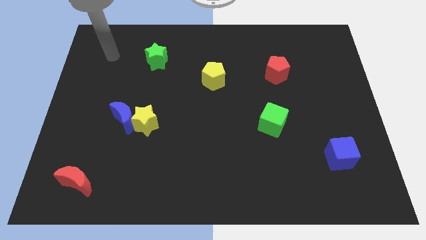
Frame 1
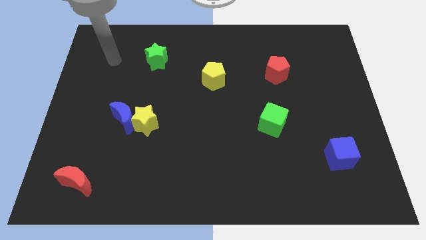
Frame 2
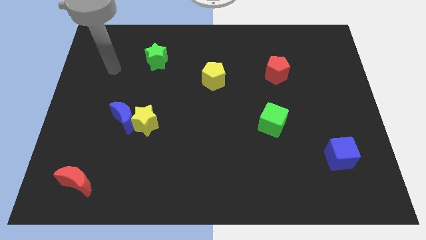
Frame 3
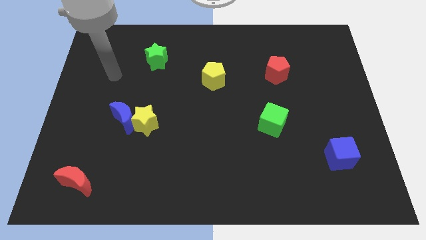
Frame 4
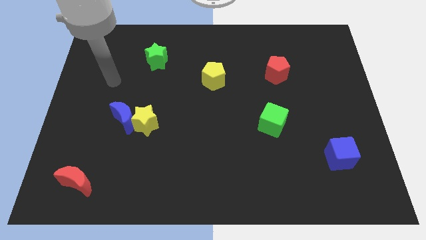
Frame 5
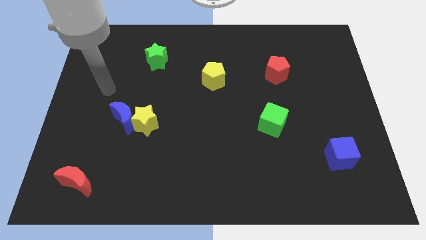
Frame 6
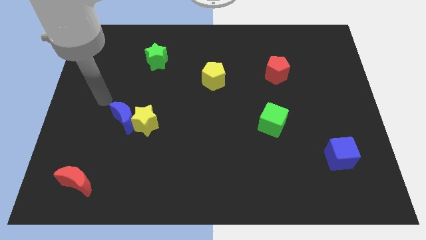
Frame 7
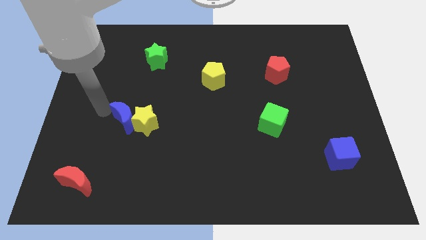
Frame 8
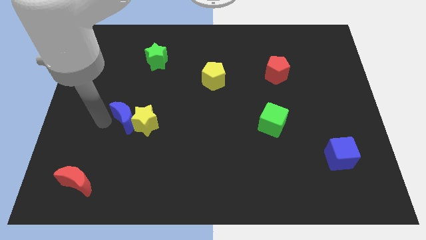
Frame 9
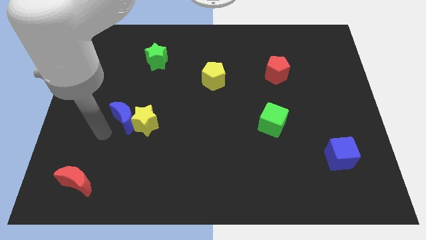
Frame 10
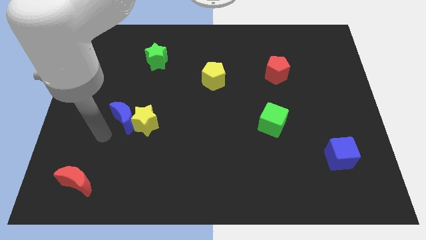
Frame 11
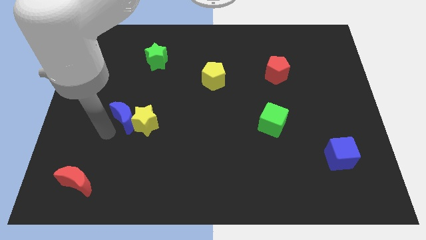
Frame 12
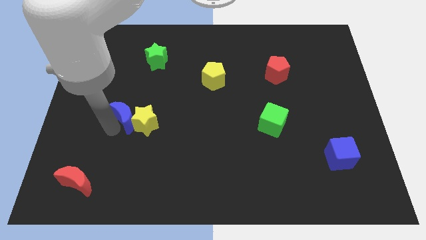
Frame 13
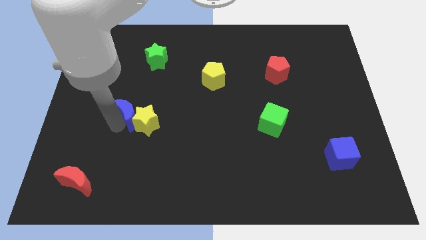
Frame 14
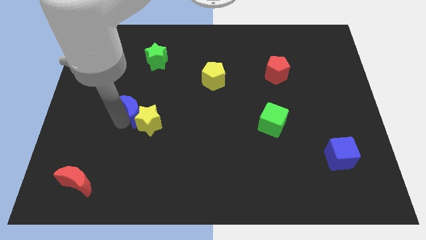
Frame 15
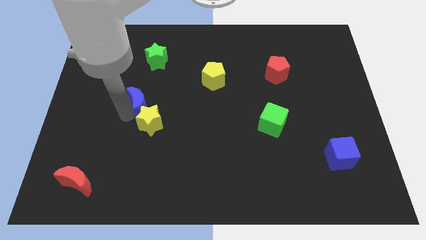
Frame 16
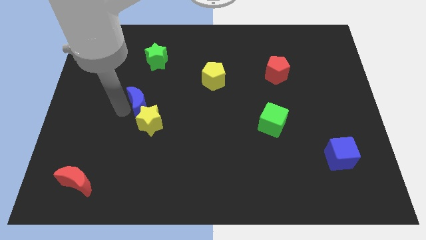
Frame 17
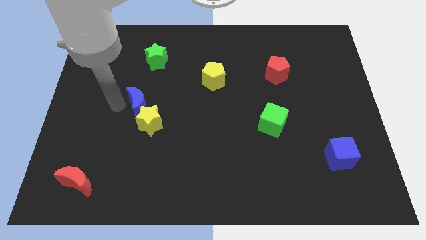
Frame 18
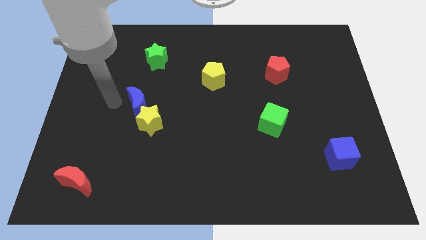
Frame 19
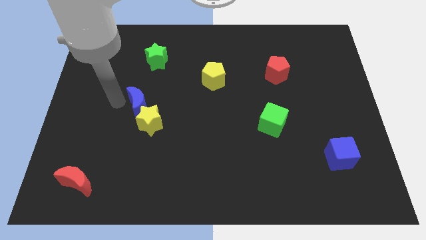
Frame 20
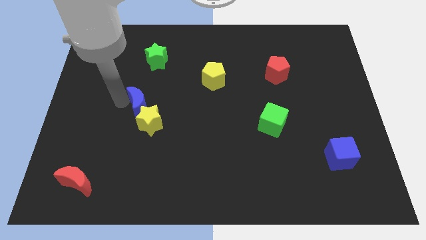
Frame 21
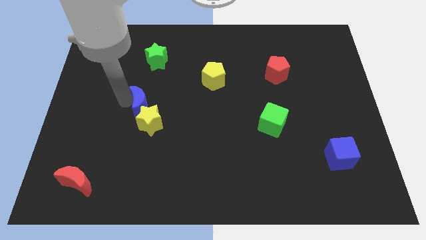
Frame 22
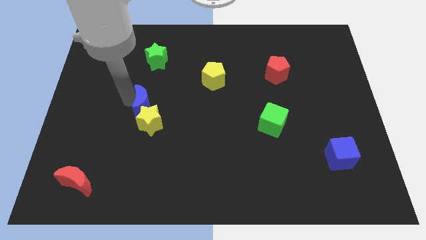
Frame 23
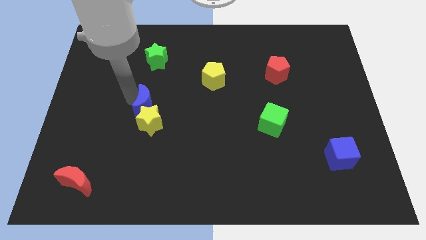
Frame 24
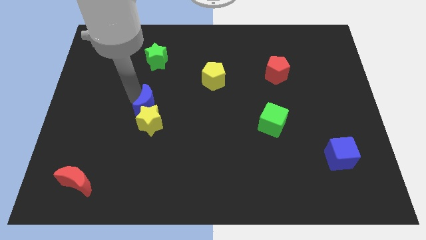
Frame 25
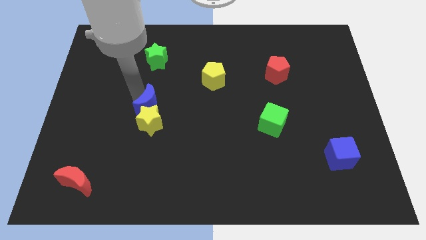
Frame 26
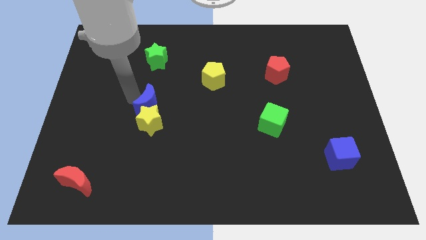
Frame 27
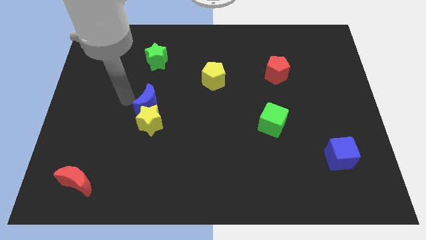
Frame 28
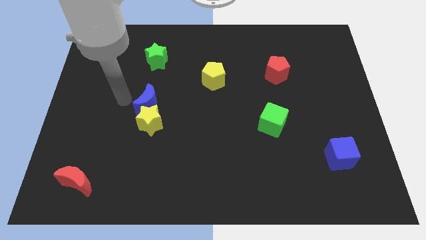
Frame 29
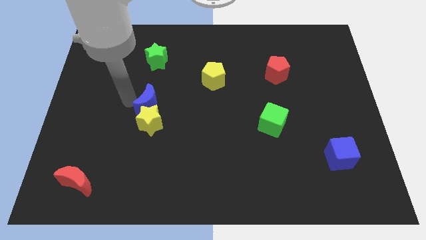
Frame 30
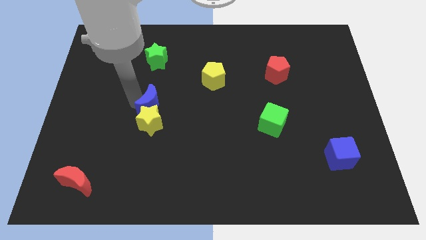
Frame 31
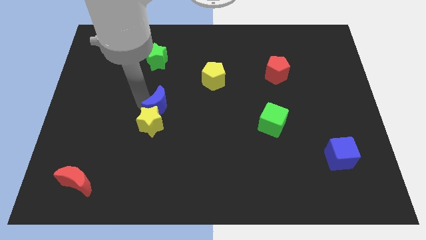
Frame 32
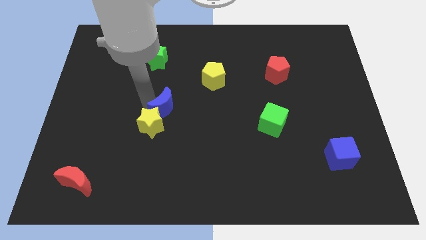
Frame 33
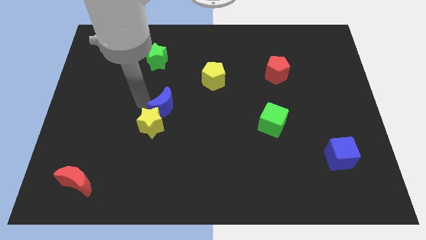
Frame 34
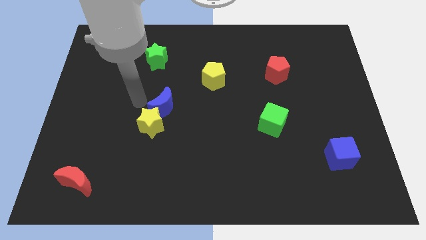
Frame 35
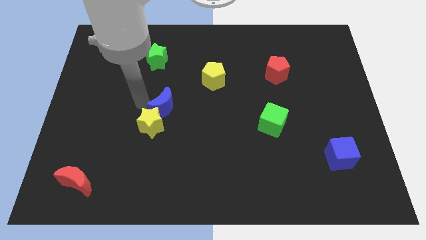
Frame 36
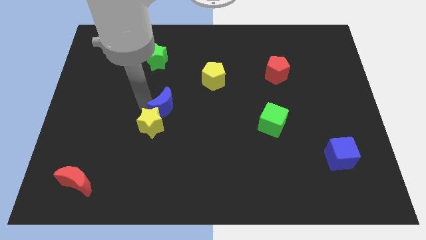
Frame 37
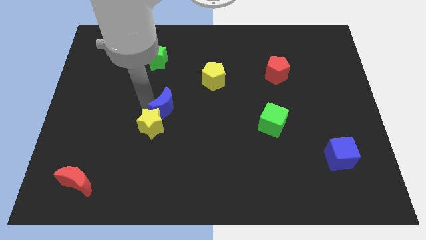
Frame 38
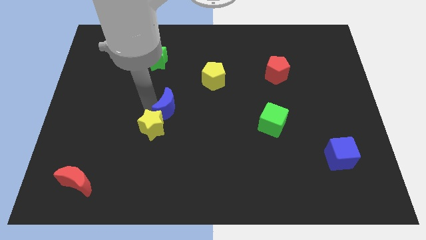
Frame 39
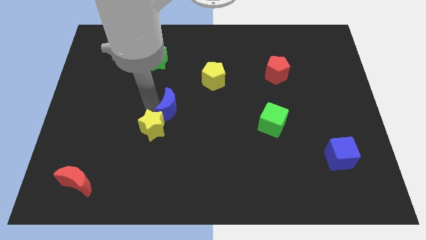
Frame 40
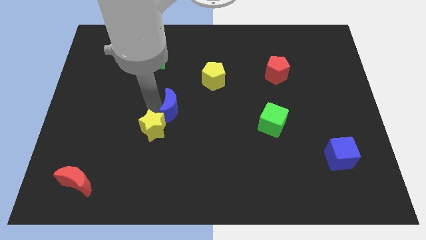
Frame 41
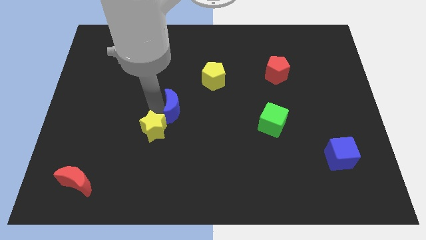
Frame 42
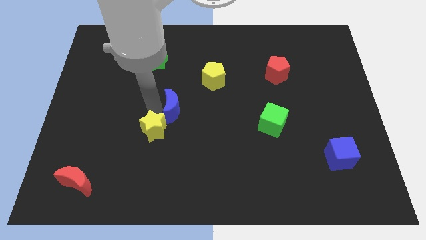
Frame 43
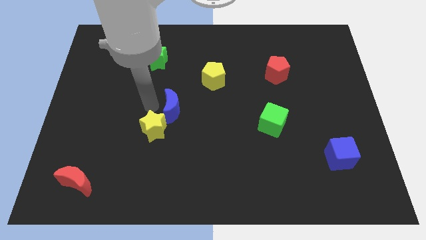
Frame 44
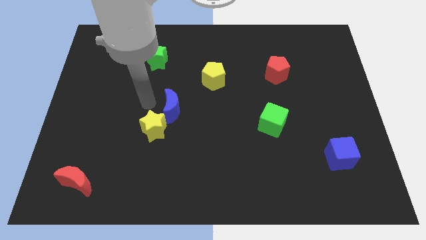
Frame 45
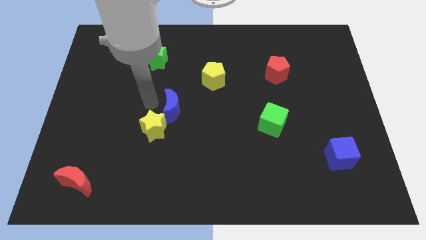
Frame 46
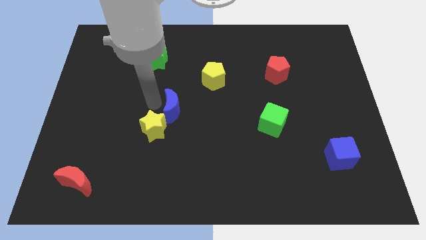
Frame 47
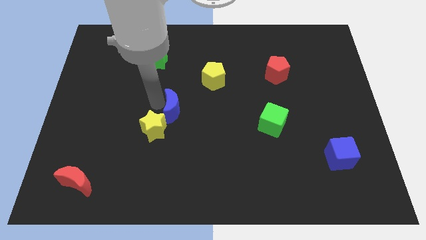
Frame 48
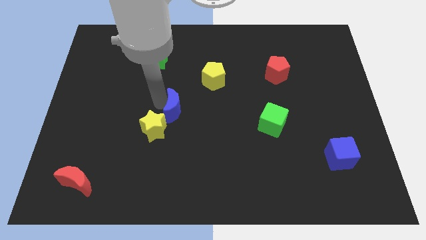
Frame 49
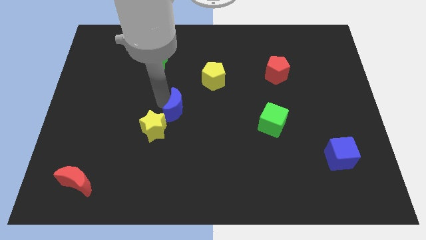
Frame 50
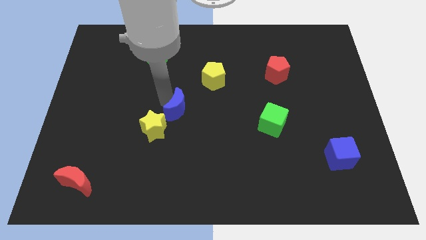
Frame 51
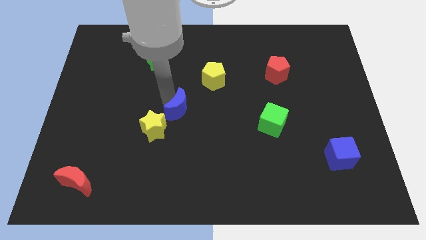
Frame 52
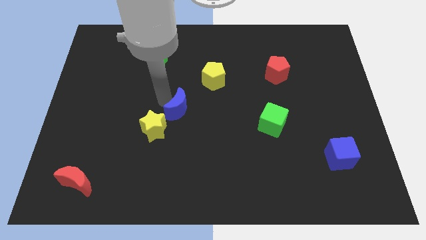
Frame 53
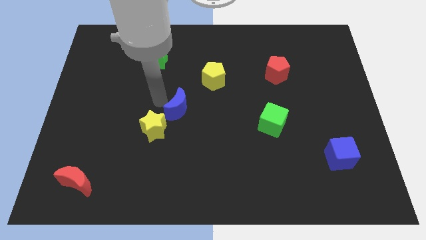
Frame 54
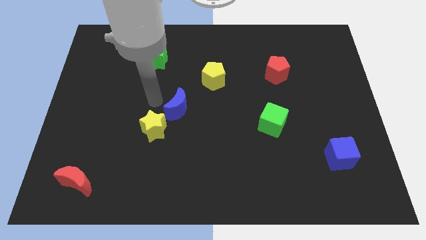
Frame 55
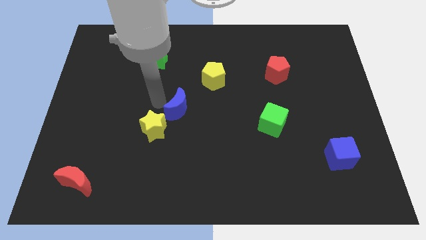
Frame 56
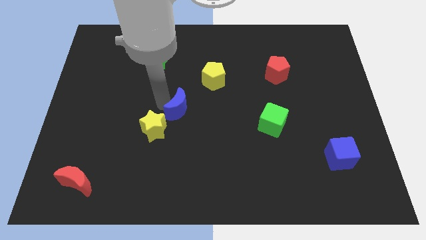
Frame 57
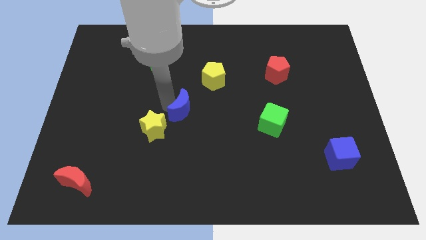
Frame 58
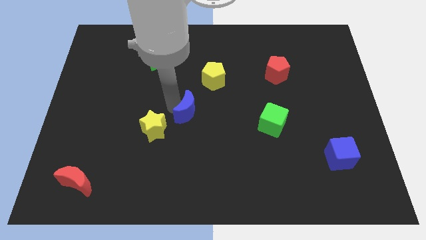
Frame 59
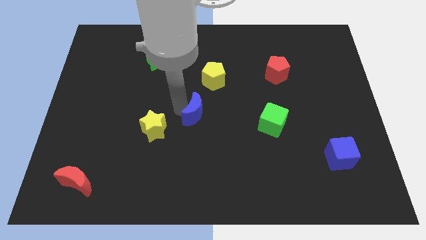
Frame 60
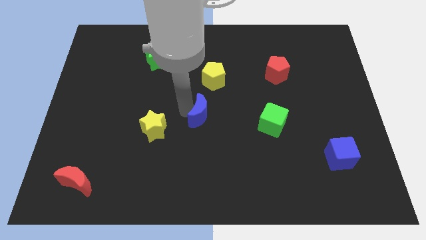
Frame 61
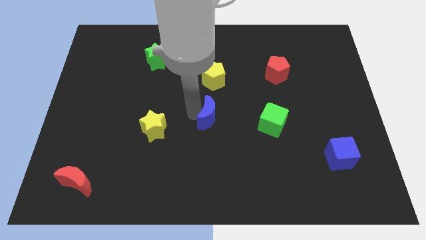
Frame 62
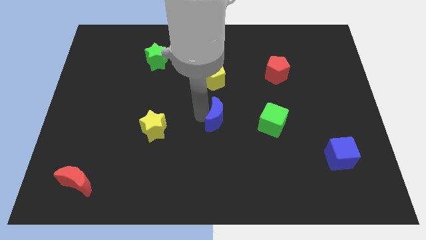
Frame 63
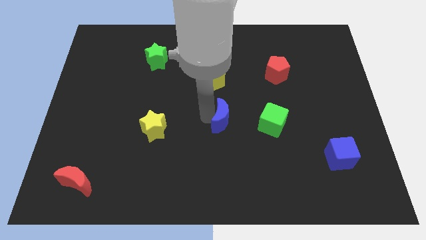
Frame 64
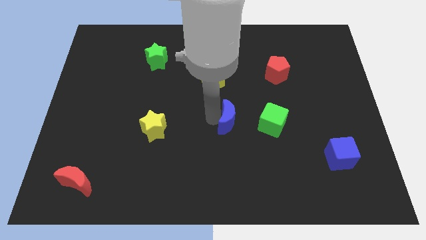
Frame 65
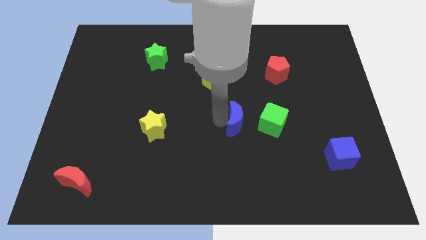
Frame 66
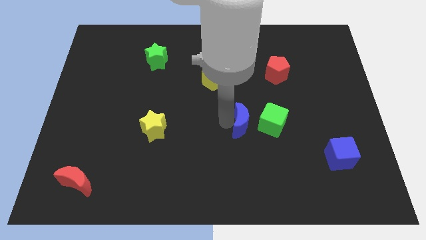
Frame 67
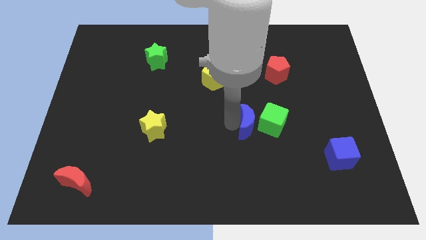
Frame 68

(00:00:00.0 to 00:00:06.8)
slide the blue moon to the green cube

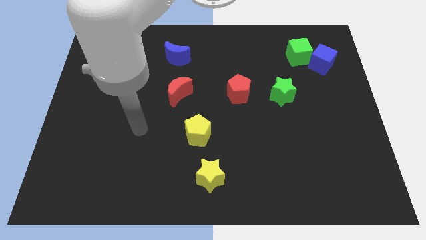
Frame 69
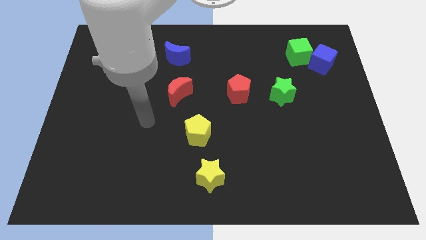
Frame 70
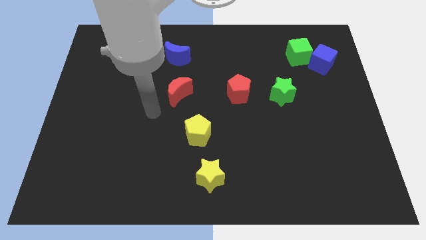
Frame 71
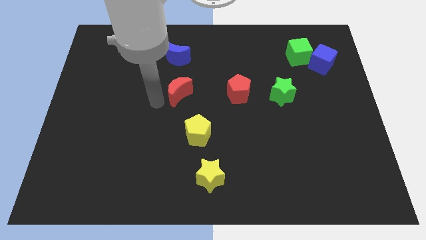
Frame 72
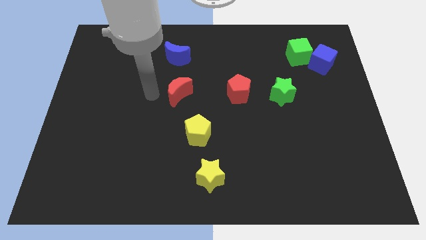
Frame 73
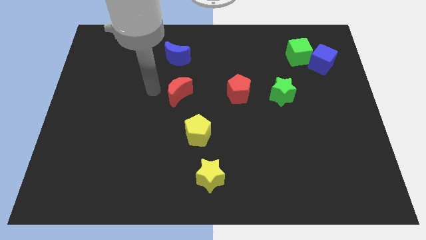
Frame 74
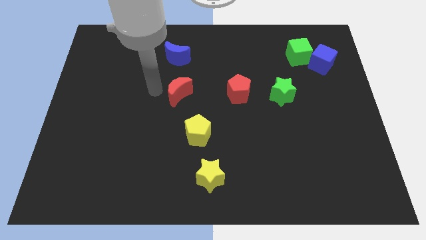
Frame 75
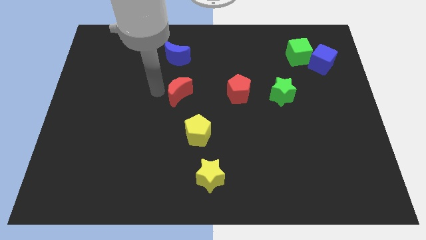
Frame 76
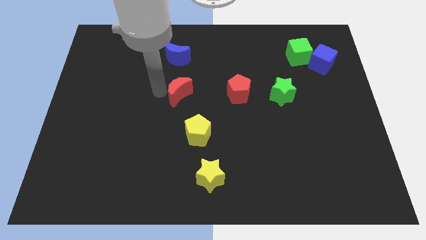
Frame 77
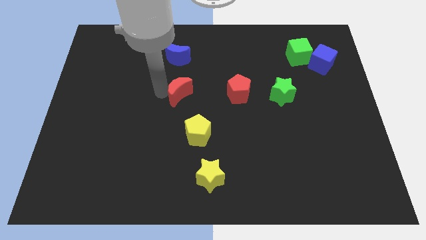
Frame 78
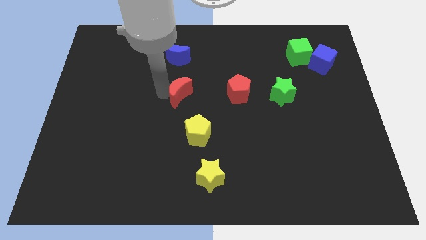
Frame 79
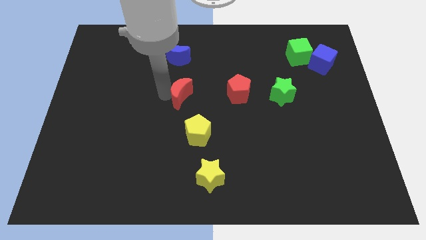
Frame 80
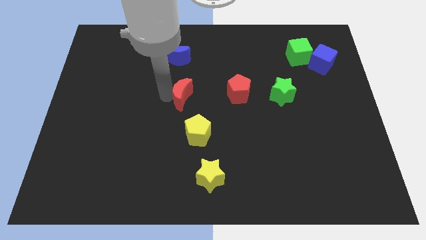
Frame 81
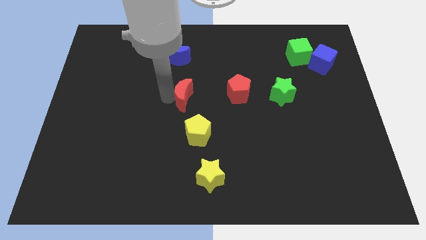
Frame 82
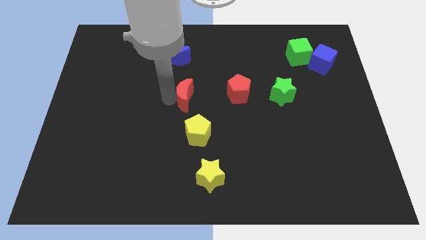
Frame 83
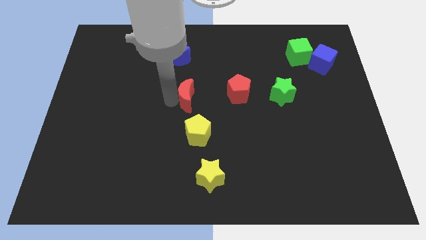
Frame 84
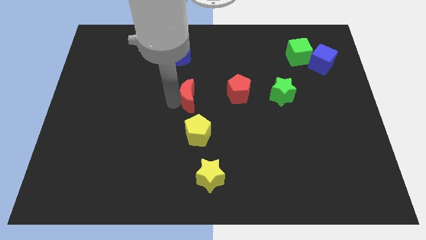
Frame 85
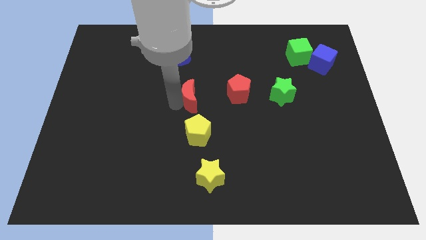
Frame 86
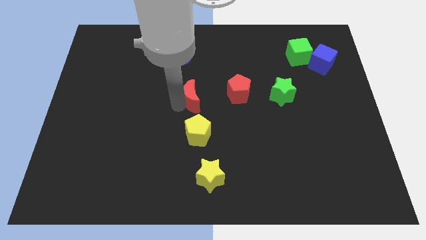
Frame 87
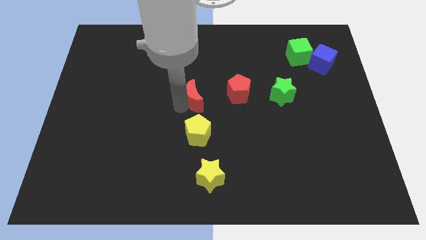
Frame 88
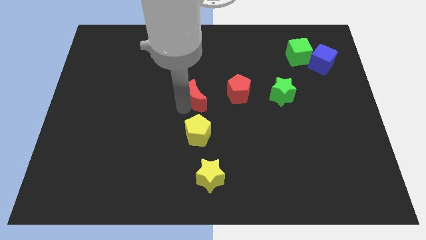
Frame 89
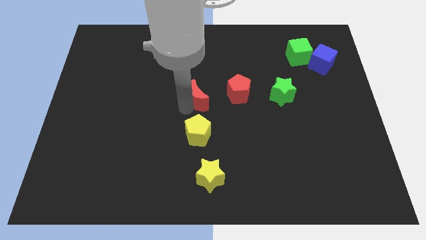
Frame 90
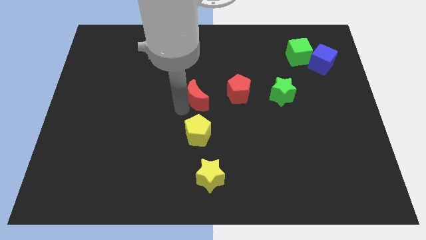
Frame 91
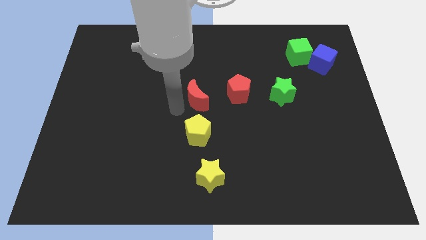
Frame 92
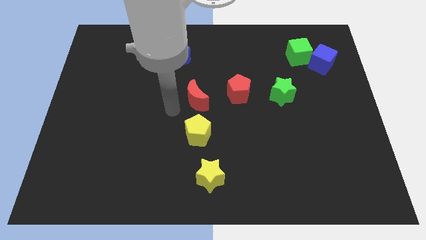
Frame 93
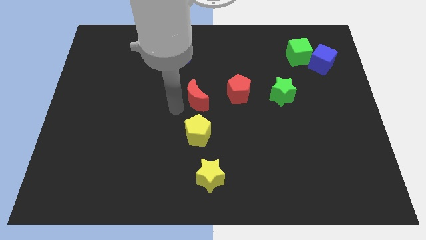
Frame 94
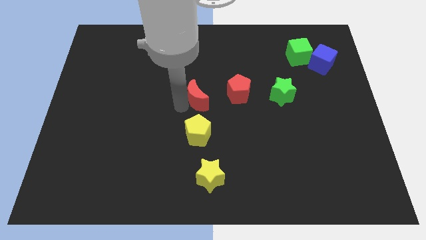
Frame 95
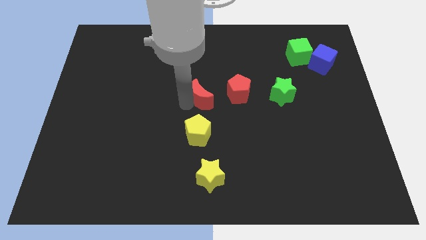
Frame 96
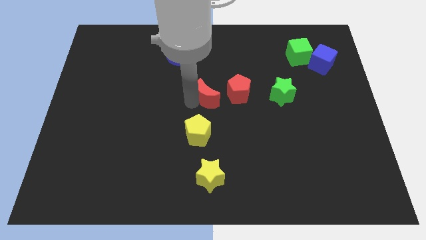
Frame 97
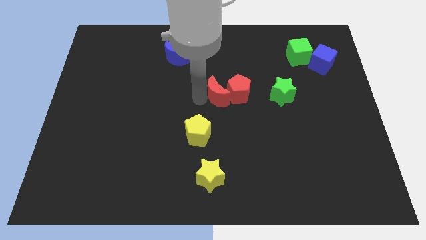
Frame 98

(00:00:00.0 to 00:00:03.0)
slide the red moon to the red pentagon
